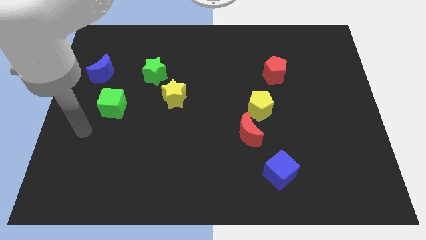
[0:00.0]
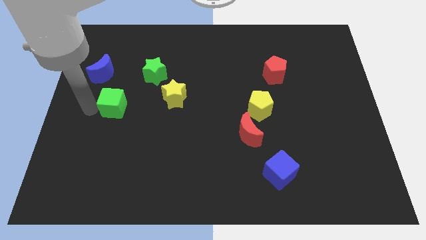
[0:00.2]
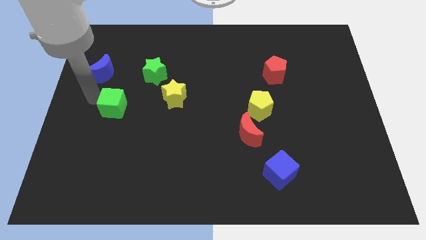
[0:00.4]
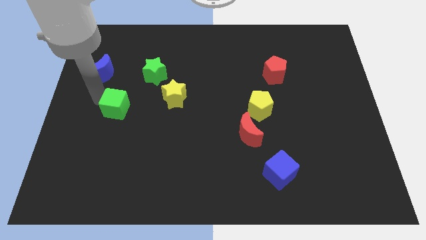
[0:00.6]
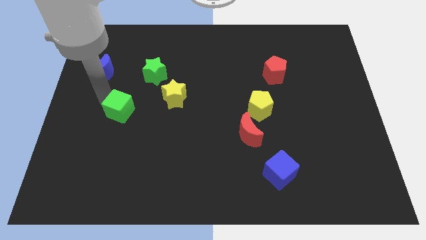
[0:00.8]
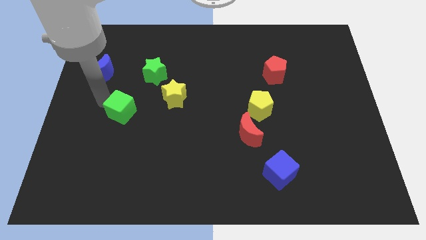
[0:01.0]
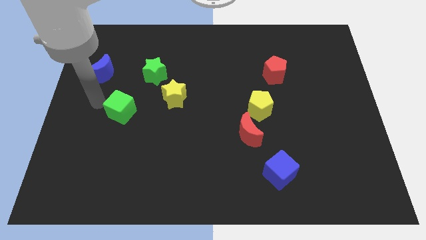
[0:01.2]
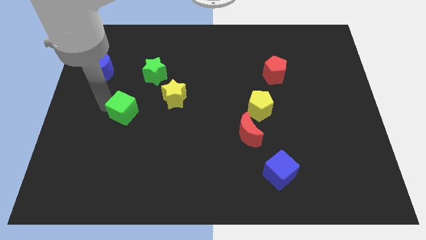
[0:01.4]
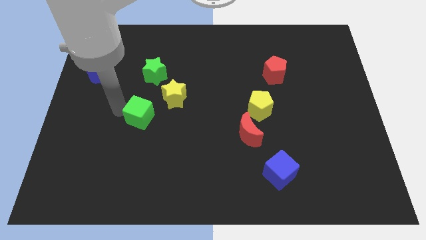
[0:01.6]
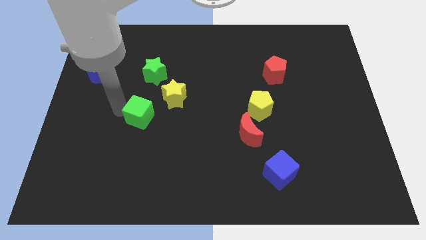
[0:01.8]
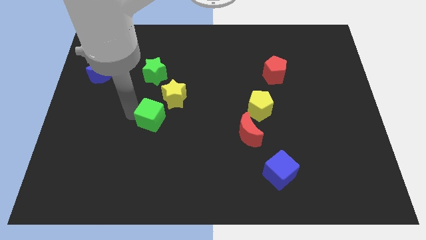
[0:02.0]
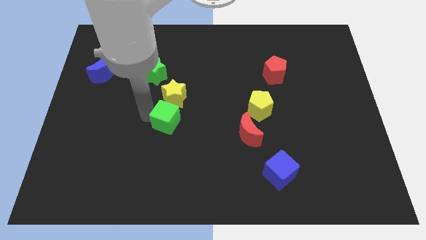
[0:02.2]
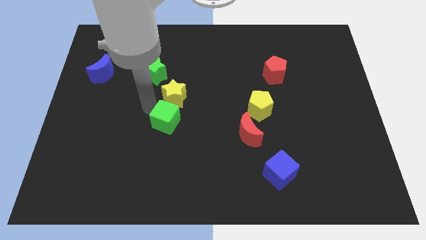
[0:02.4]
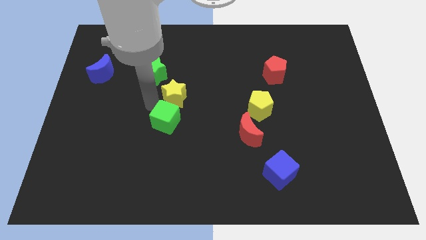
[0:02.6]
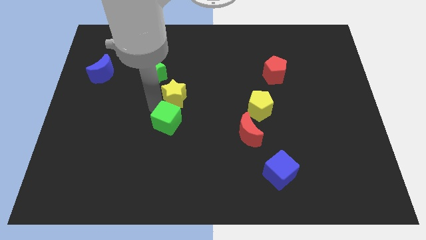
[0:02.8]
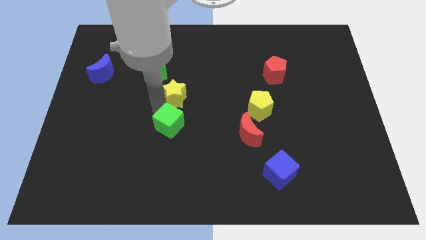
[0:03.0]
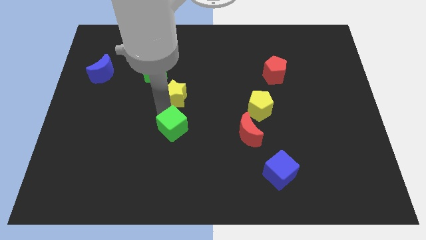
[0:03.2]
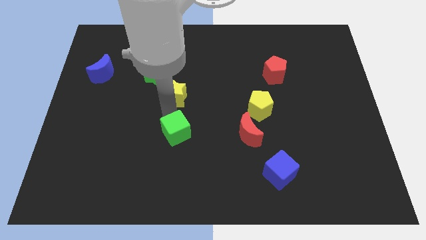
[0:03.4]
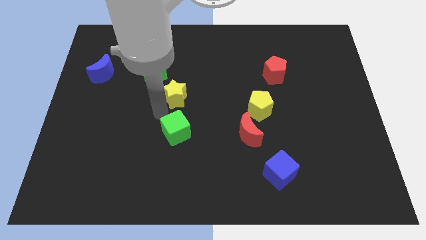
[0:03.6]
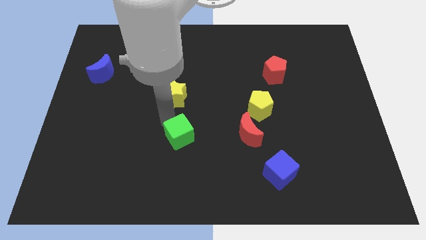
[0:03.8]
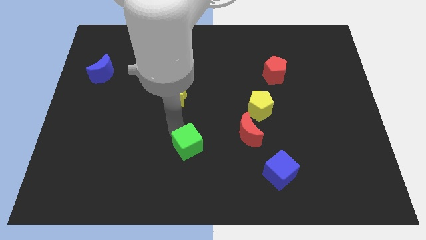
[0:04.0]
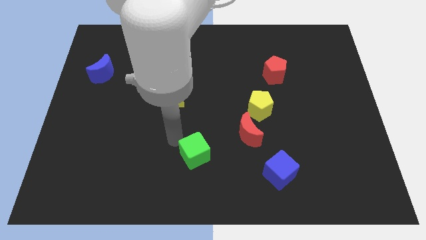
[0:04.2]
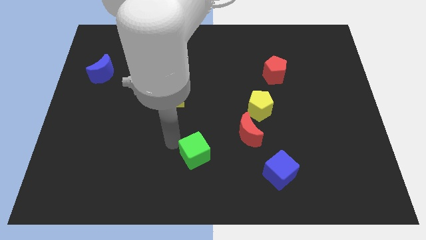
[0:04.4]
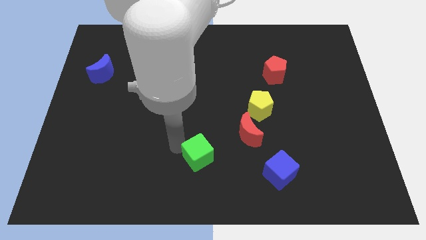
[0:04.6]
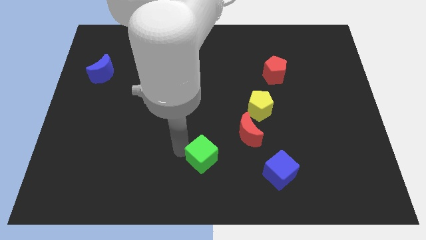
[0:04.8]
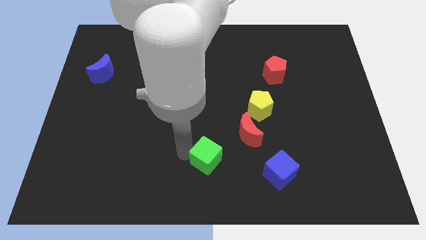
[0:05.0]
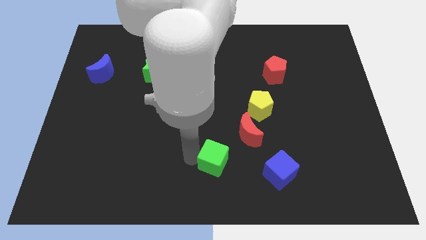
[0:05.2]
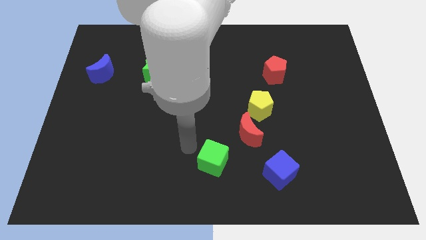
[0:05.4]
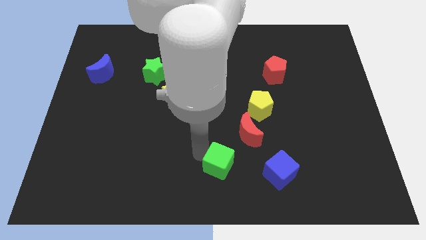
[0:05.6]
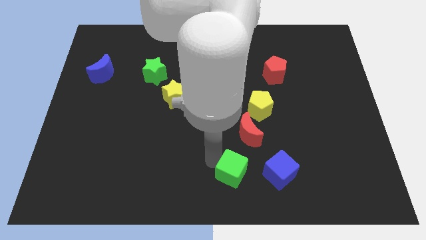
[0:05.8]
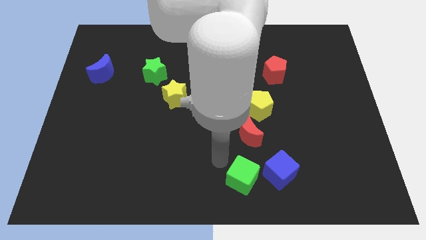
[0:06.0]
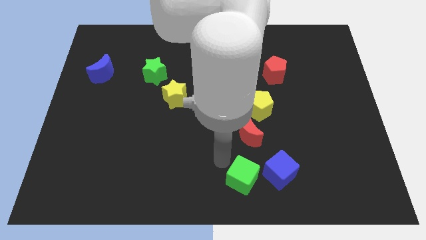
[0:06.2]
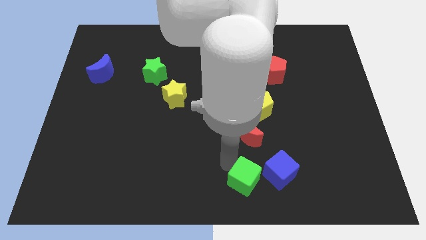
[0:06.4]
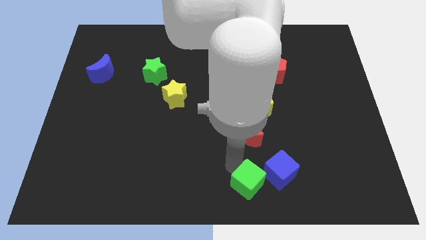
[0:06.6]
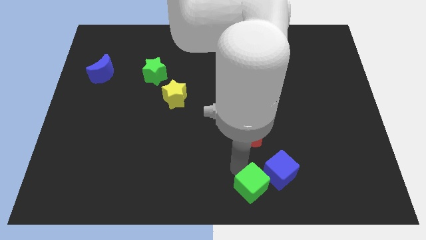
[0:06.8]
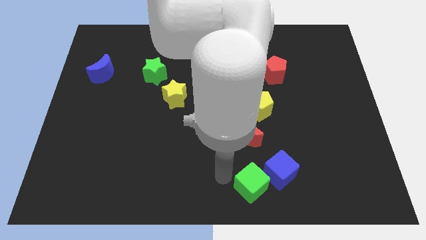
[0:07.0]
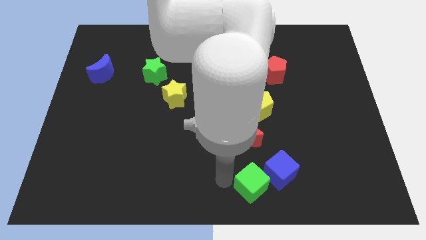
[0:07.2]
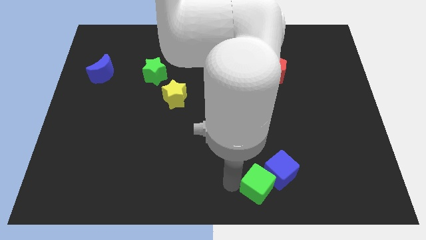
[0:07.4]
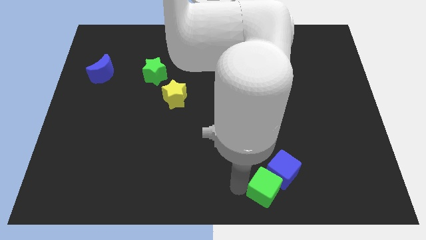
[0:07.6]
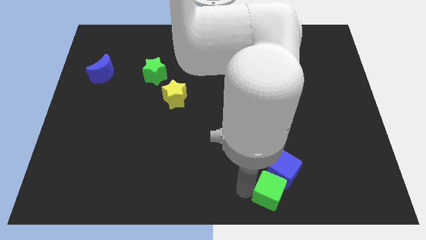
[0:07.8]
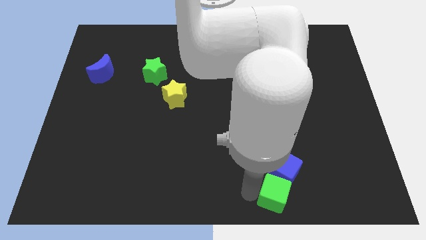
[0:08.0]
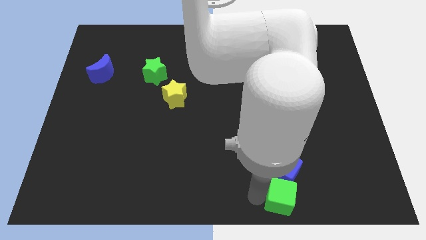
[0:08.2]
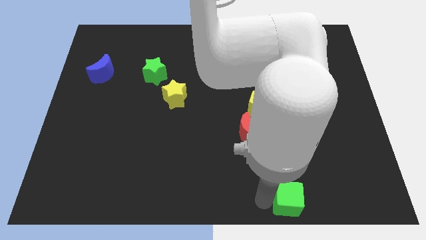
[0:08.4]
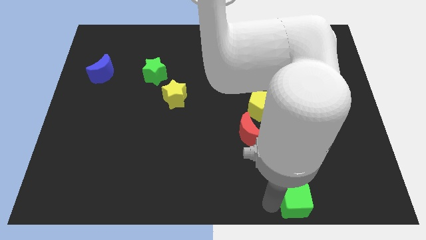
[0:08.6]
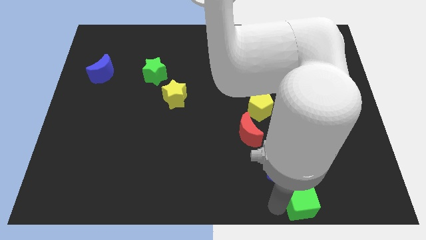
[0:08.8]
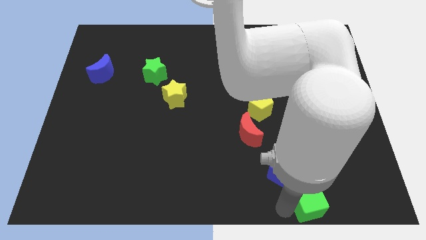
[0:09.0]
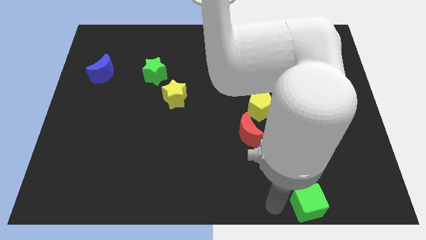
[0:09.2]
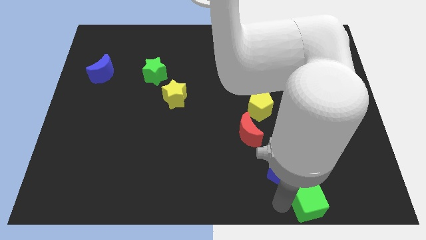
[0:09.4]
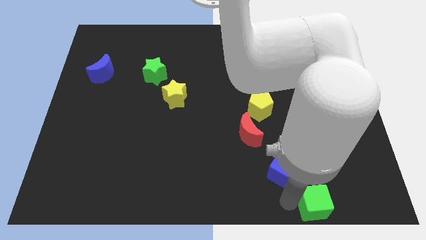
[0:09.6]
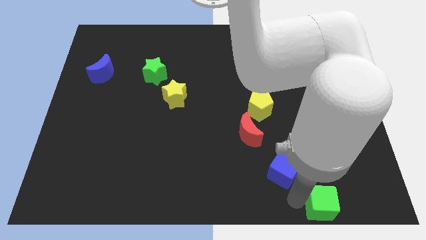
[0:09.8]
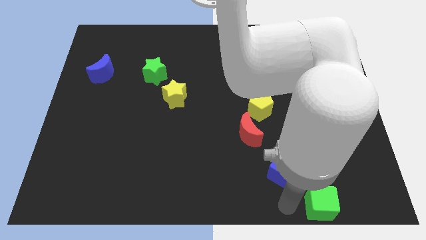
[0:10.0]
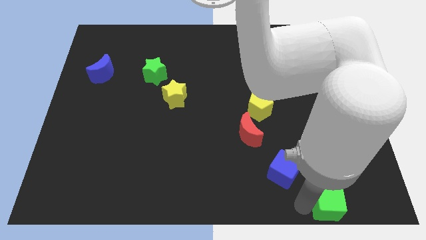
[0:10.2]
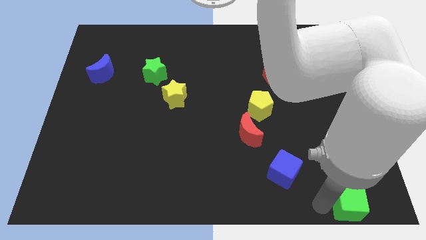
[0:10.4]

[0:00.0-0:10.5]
slide the green cube to the bottom right corner

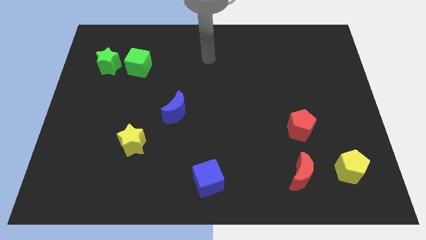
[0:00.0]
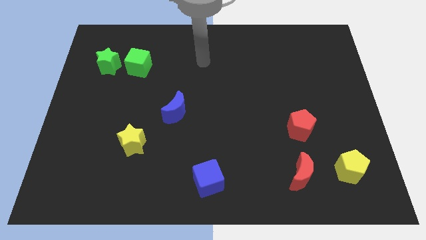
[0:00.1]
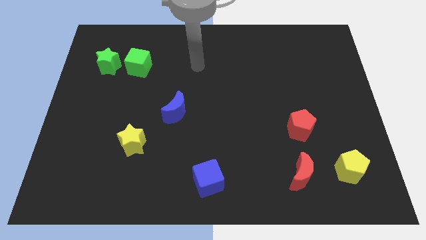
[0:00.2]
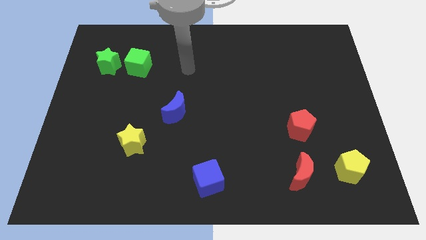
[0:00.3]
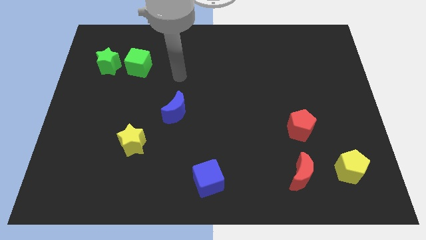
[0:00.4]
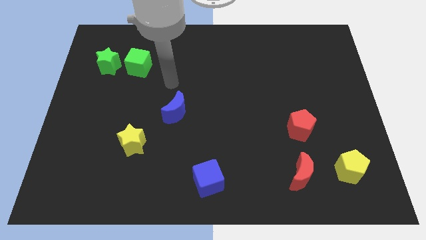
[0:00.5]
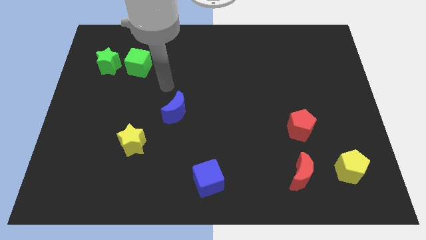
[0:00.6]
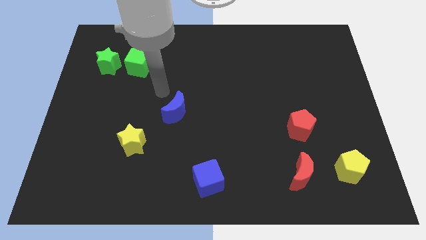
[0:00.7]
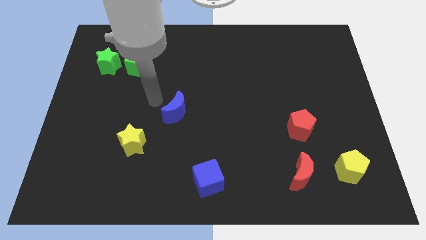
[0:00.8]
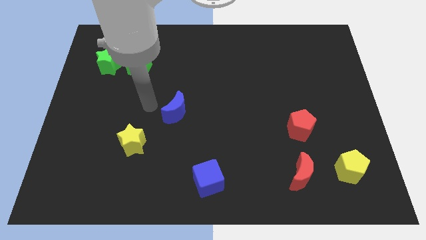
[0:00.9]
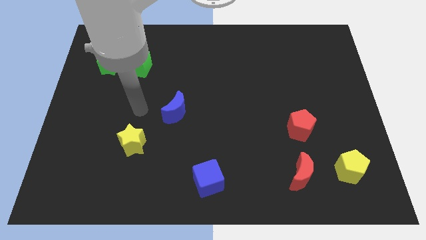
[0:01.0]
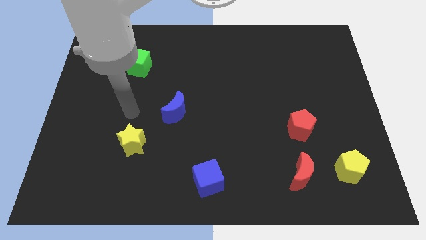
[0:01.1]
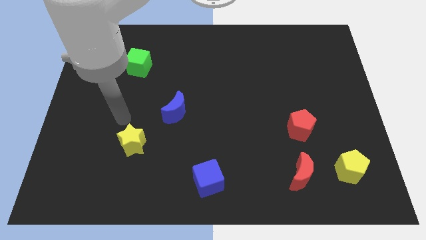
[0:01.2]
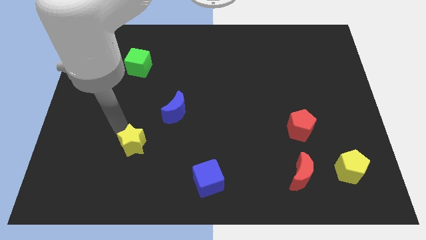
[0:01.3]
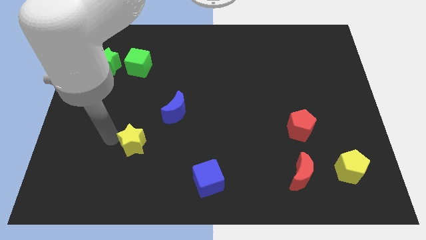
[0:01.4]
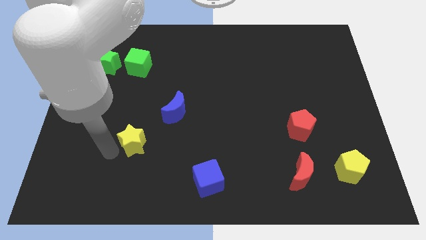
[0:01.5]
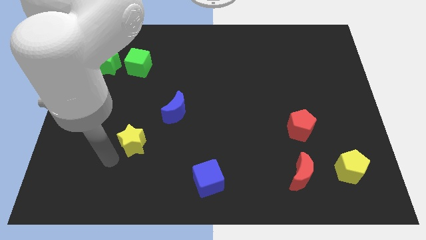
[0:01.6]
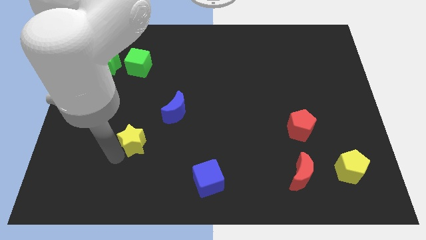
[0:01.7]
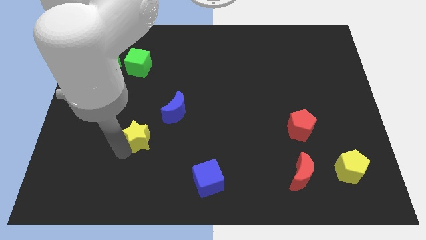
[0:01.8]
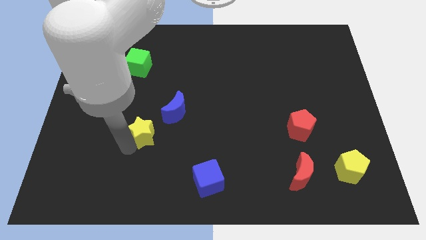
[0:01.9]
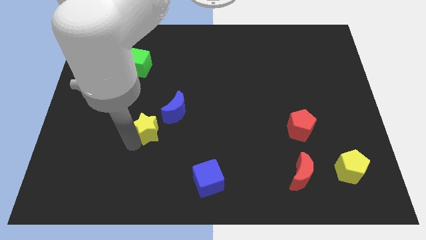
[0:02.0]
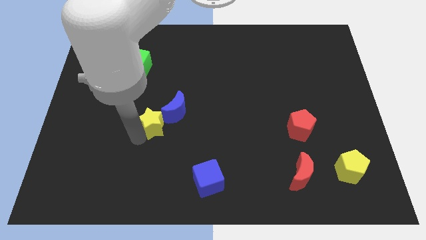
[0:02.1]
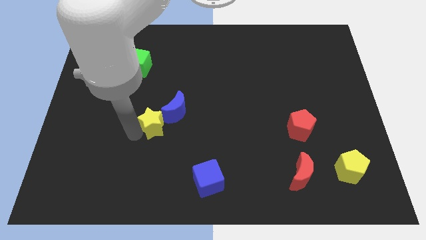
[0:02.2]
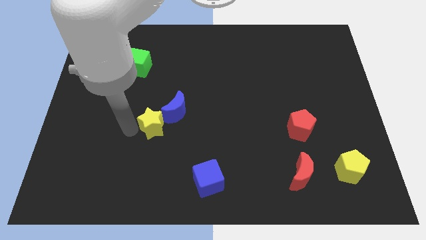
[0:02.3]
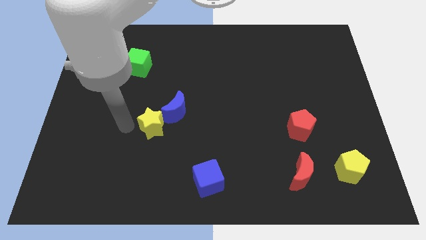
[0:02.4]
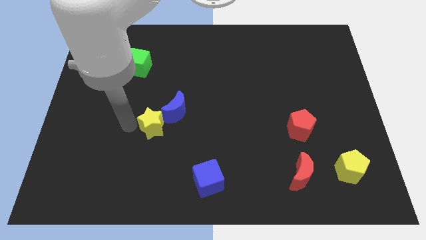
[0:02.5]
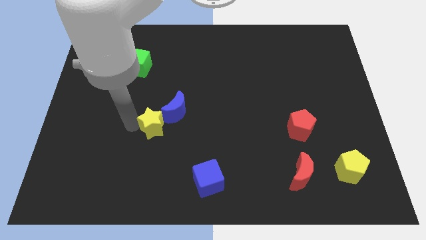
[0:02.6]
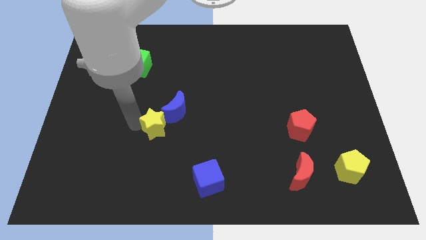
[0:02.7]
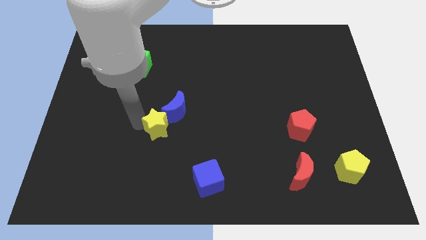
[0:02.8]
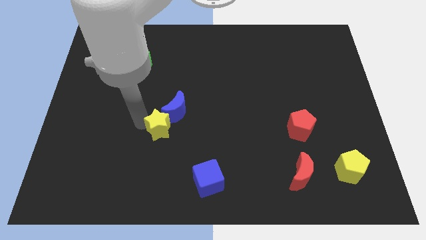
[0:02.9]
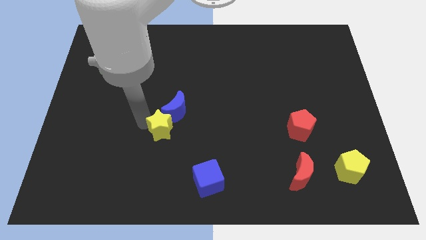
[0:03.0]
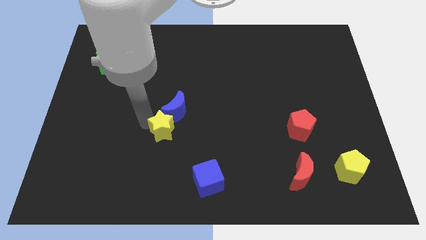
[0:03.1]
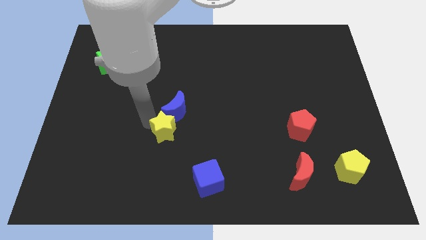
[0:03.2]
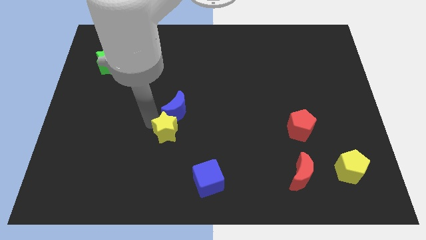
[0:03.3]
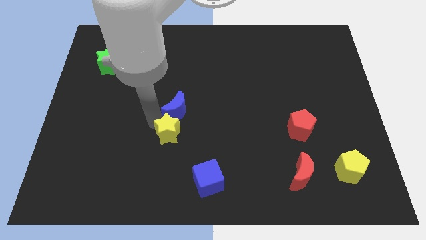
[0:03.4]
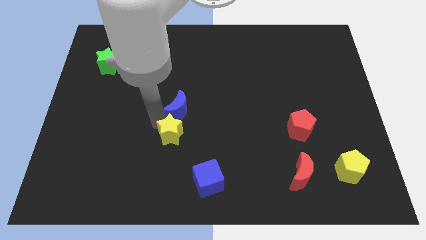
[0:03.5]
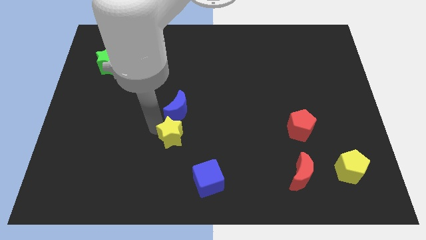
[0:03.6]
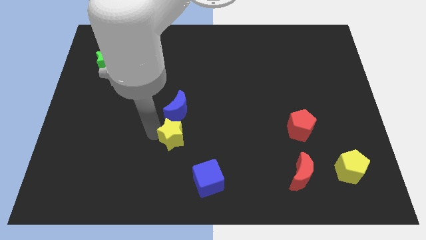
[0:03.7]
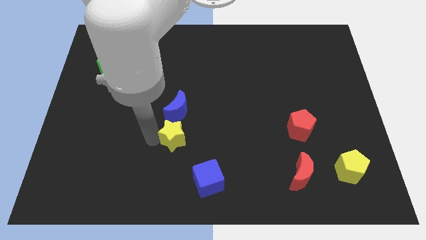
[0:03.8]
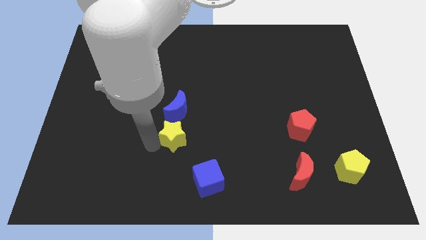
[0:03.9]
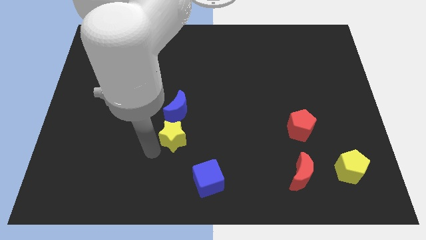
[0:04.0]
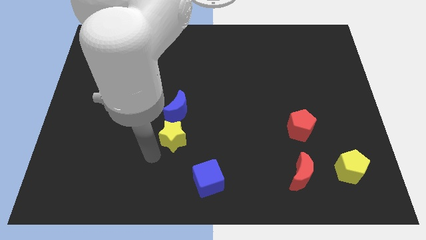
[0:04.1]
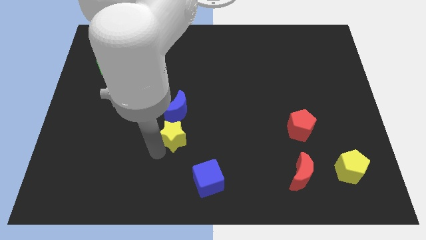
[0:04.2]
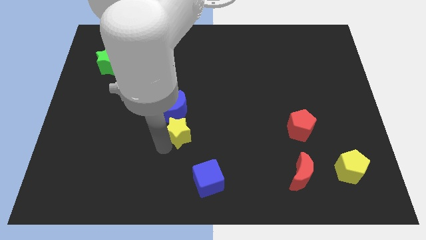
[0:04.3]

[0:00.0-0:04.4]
move the yellow star to the middle
